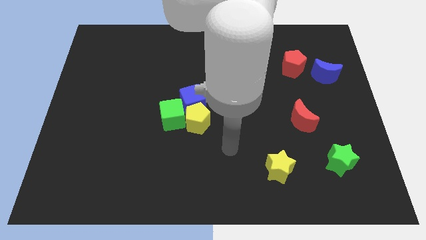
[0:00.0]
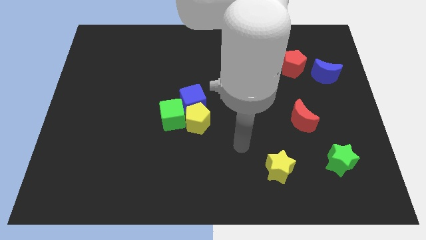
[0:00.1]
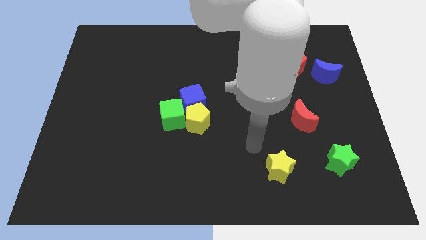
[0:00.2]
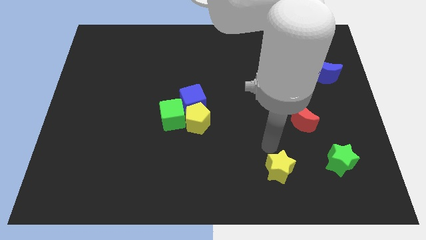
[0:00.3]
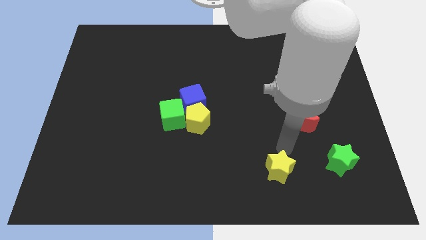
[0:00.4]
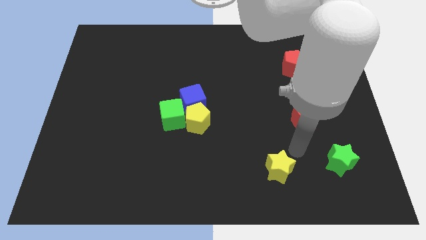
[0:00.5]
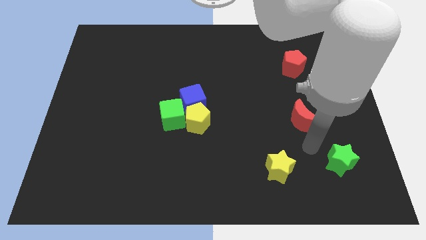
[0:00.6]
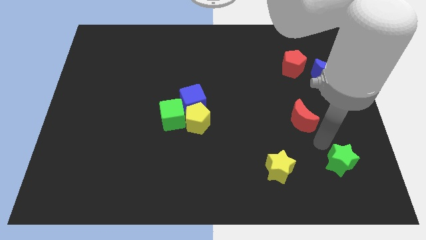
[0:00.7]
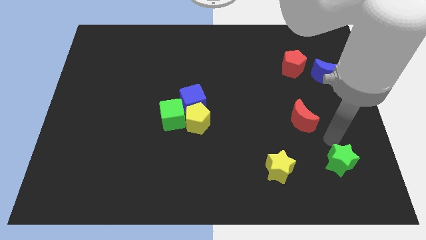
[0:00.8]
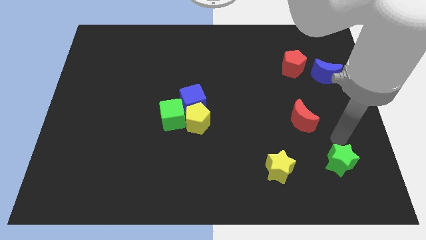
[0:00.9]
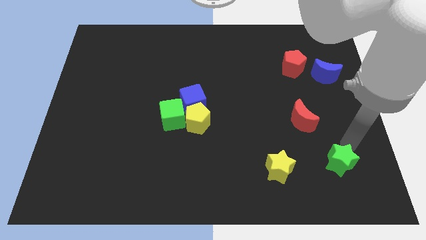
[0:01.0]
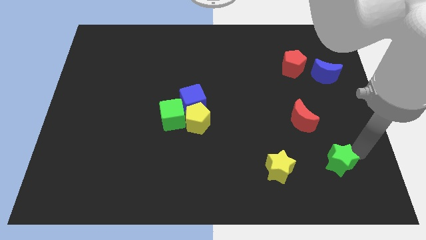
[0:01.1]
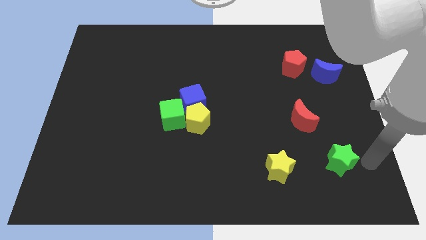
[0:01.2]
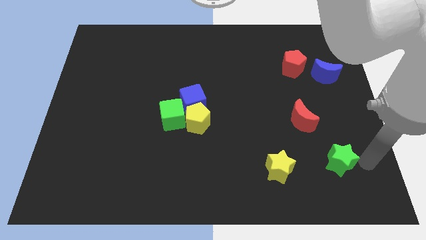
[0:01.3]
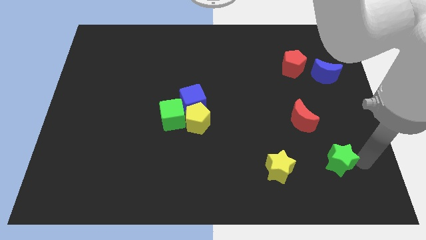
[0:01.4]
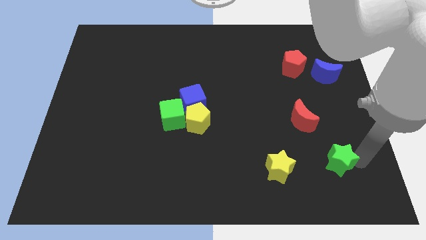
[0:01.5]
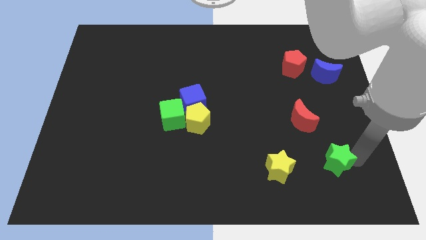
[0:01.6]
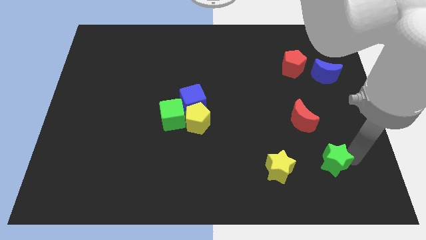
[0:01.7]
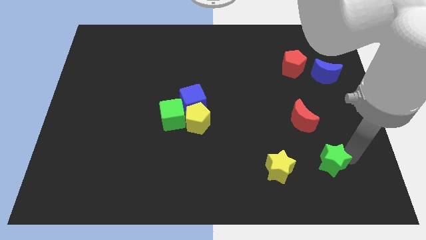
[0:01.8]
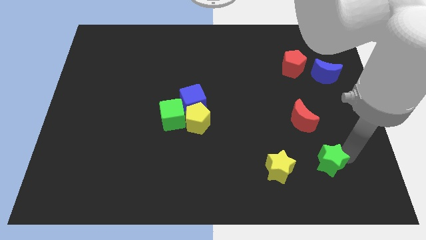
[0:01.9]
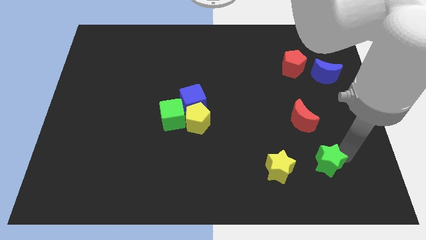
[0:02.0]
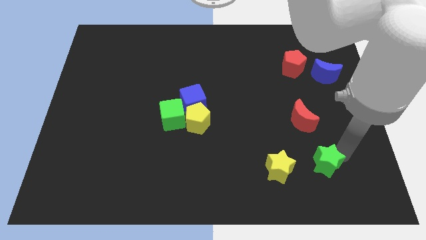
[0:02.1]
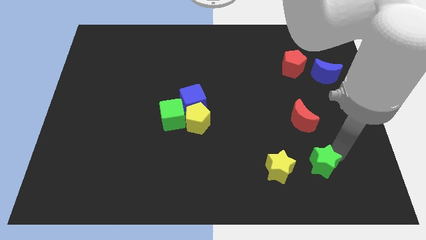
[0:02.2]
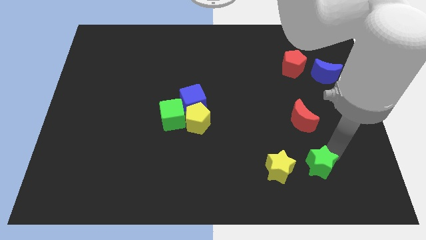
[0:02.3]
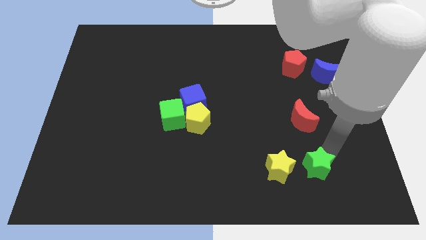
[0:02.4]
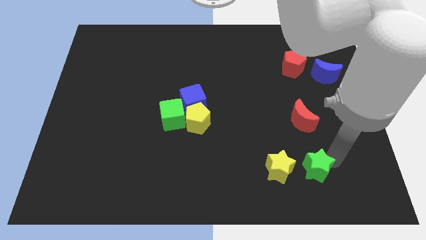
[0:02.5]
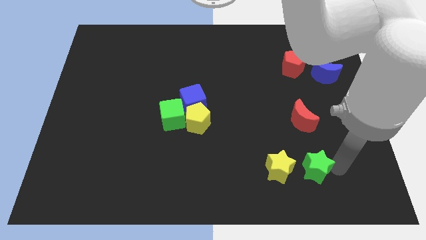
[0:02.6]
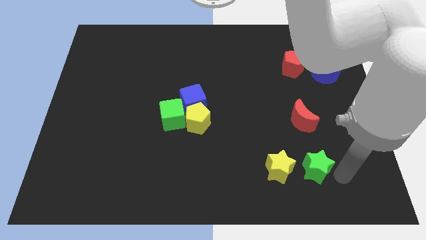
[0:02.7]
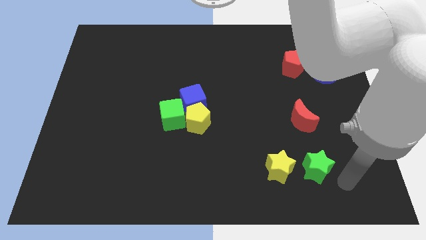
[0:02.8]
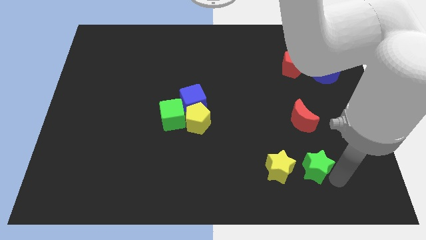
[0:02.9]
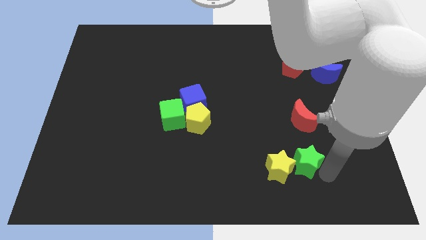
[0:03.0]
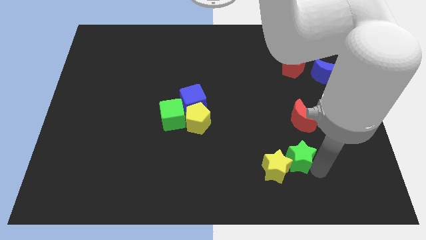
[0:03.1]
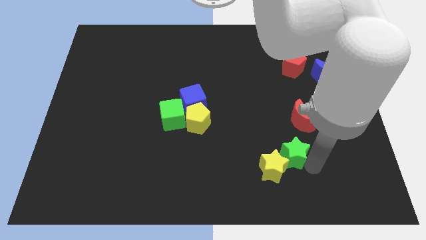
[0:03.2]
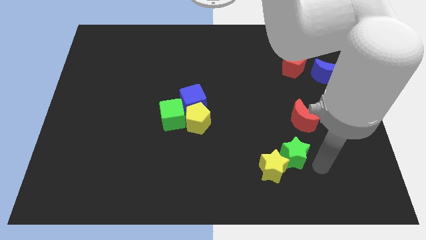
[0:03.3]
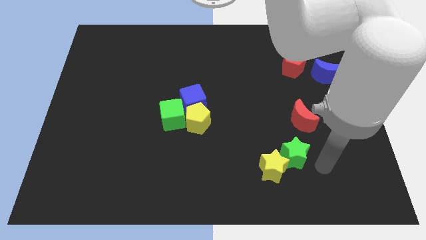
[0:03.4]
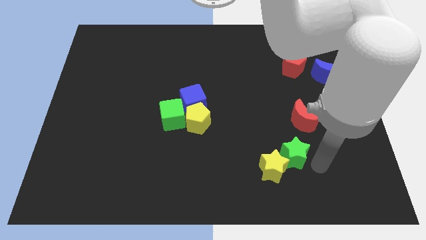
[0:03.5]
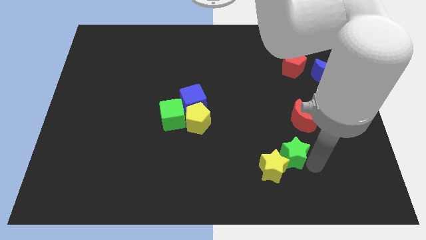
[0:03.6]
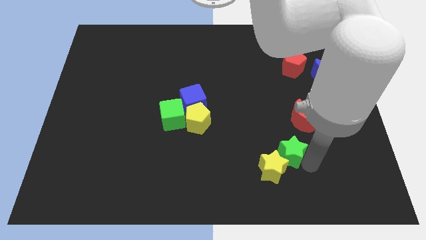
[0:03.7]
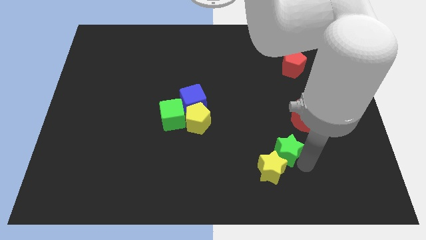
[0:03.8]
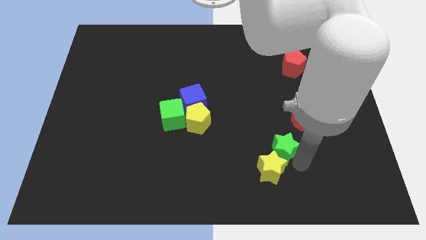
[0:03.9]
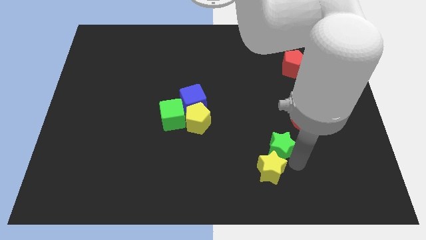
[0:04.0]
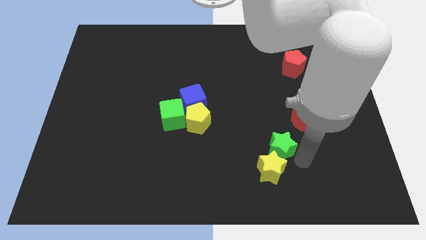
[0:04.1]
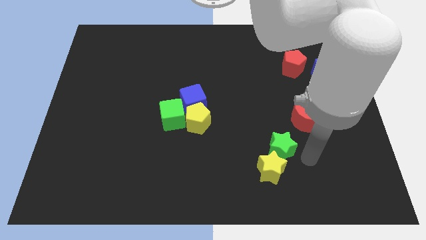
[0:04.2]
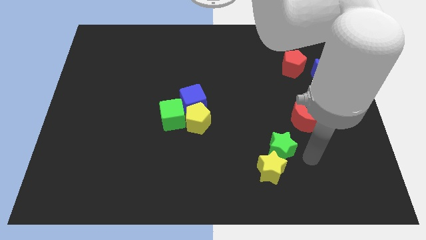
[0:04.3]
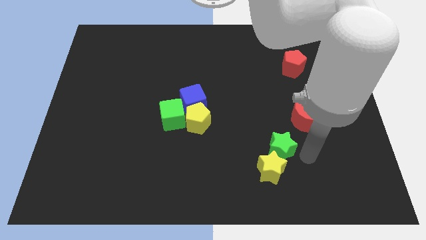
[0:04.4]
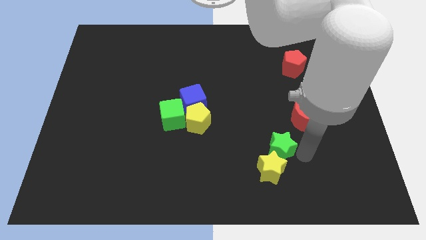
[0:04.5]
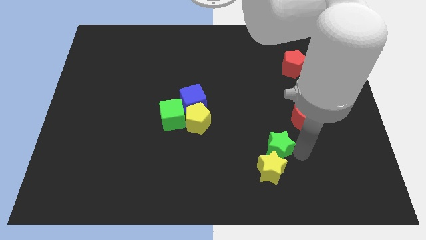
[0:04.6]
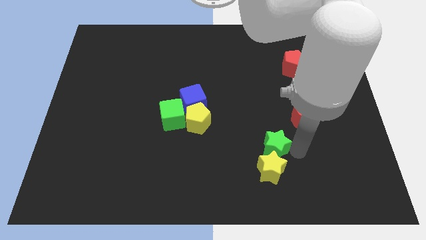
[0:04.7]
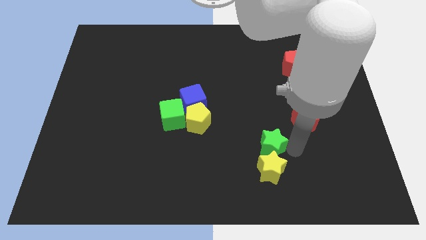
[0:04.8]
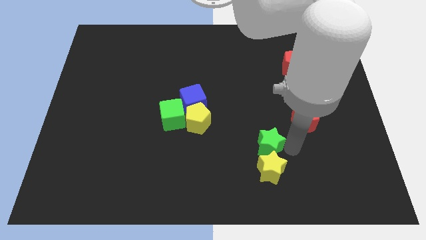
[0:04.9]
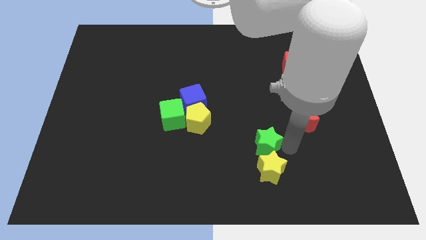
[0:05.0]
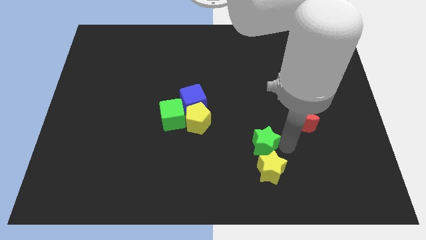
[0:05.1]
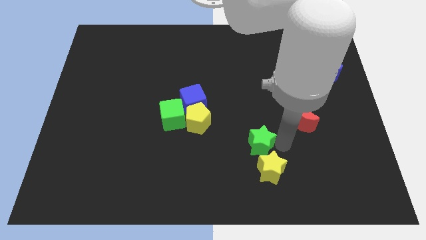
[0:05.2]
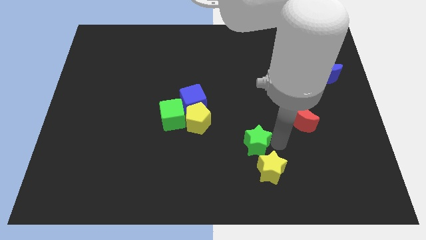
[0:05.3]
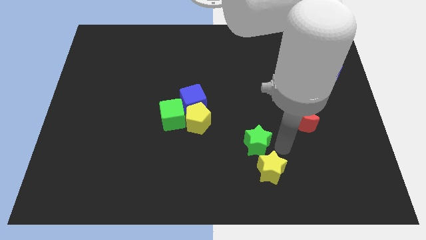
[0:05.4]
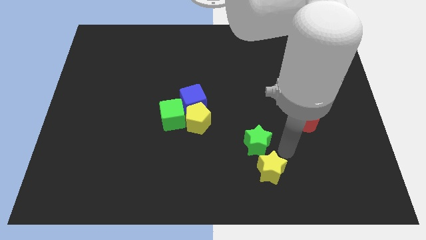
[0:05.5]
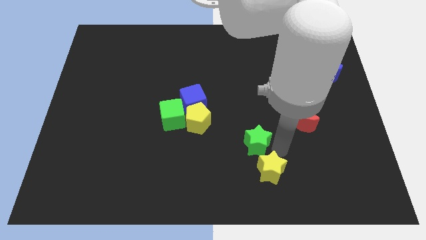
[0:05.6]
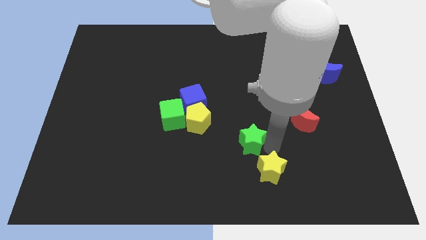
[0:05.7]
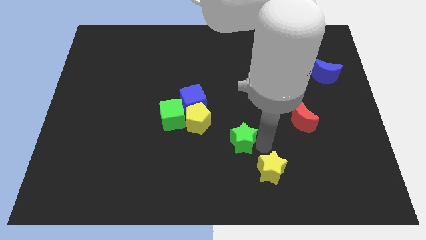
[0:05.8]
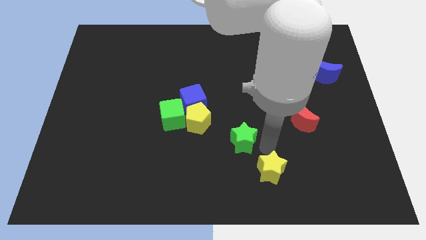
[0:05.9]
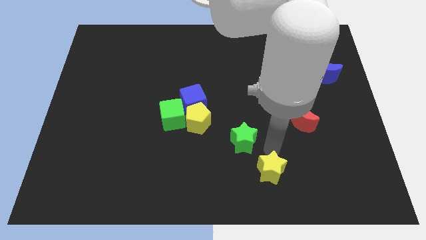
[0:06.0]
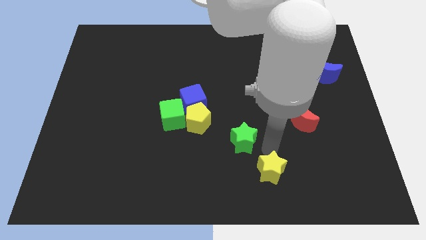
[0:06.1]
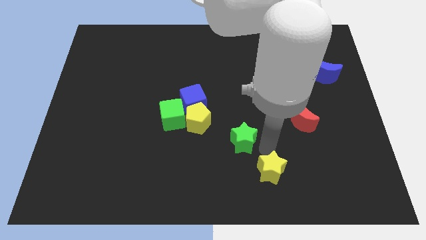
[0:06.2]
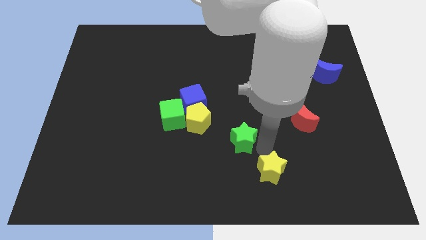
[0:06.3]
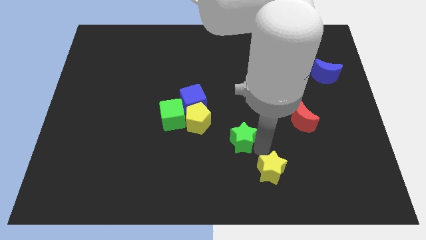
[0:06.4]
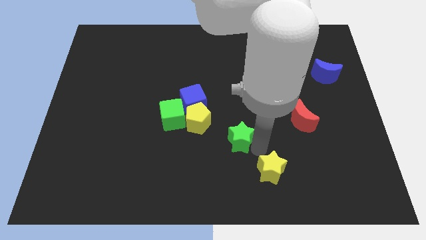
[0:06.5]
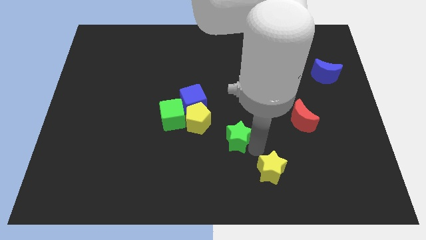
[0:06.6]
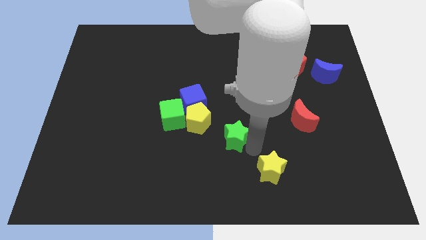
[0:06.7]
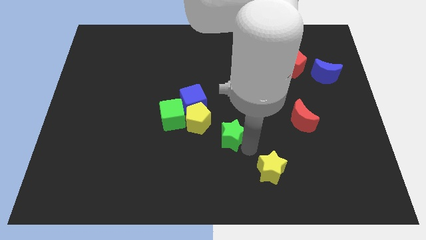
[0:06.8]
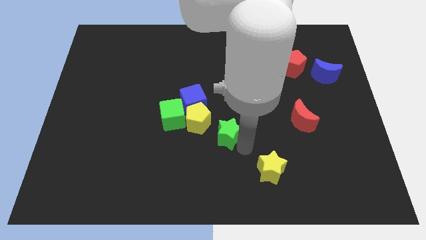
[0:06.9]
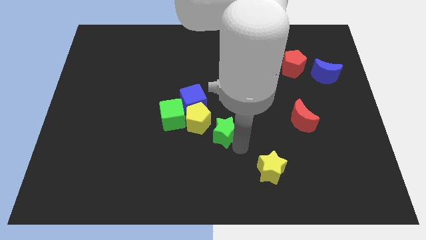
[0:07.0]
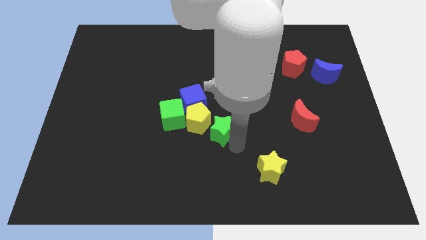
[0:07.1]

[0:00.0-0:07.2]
put the green star towards the yellow pentagon
